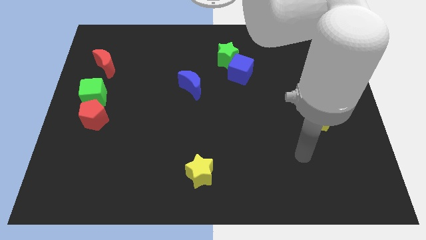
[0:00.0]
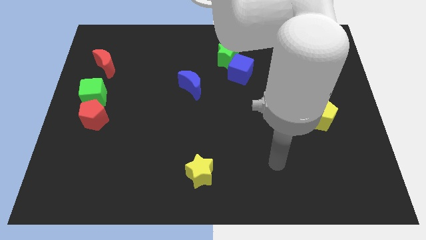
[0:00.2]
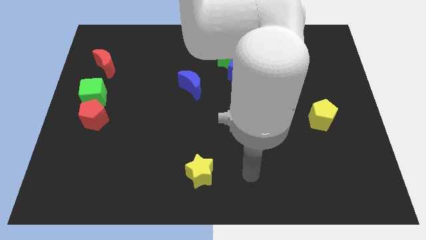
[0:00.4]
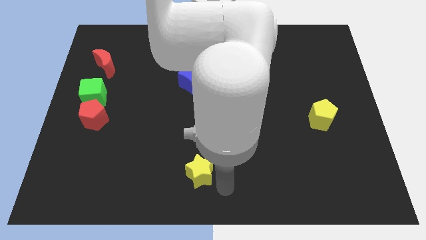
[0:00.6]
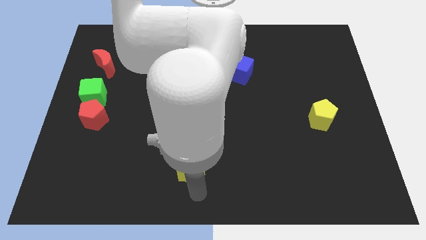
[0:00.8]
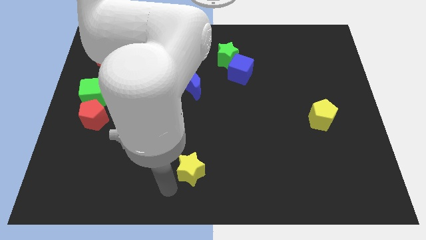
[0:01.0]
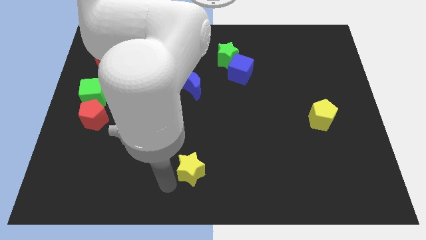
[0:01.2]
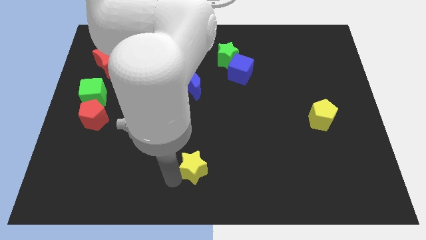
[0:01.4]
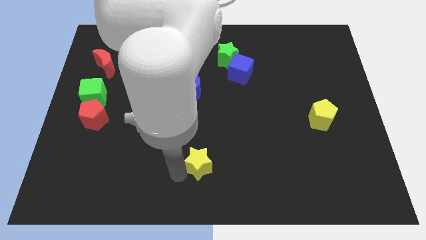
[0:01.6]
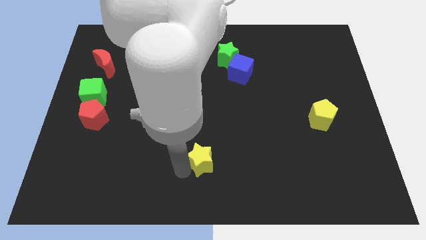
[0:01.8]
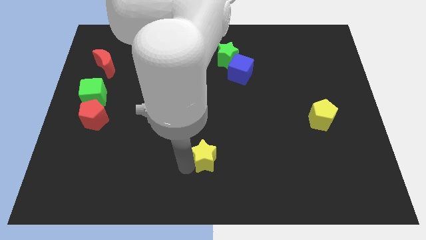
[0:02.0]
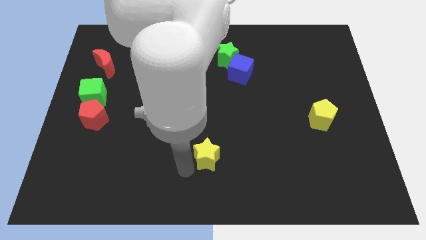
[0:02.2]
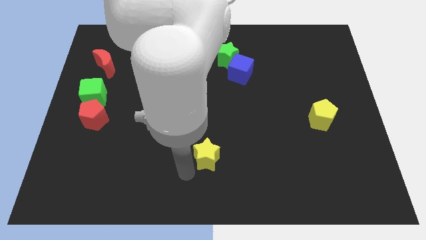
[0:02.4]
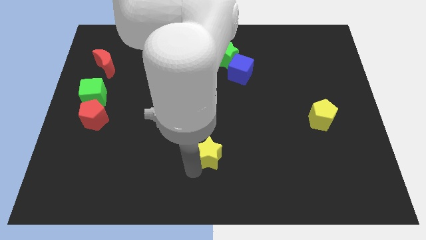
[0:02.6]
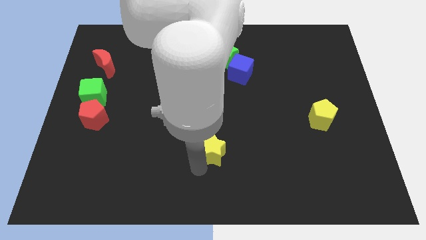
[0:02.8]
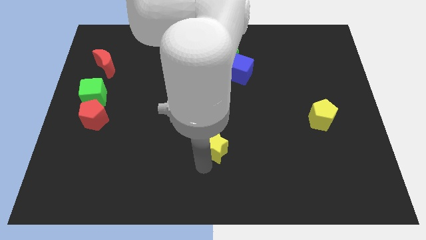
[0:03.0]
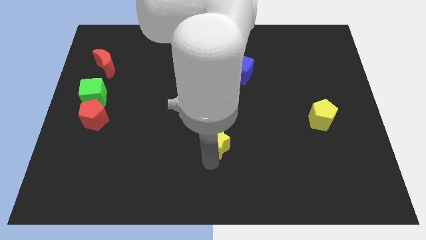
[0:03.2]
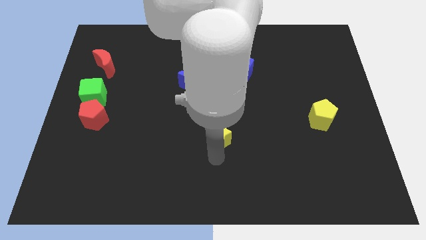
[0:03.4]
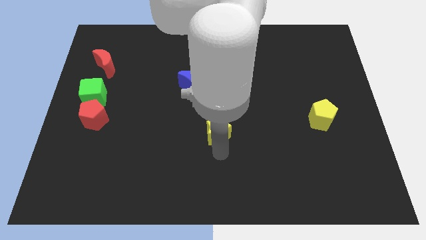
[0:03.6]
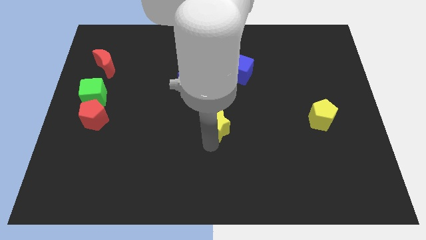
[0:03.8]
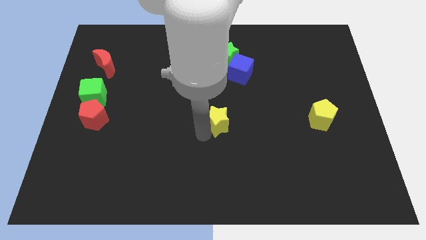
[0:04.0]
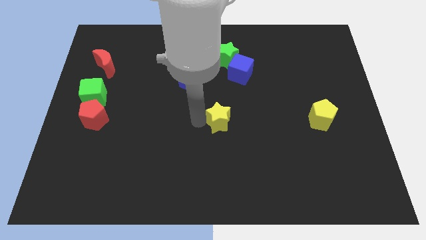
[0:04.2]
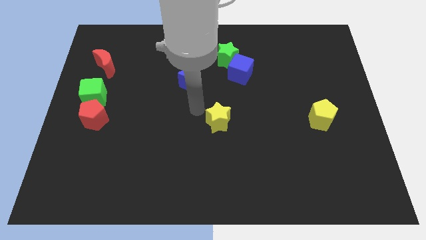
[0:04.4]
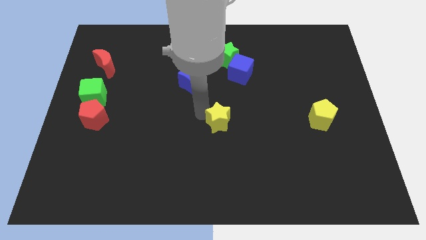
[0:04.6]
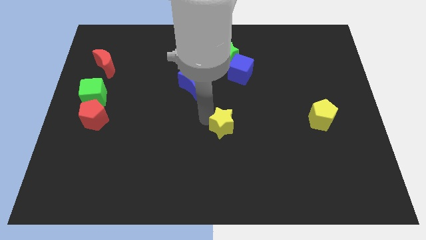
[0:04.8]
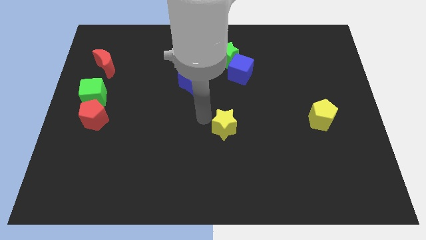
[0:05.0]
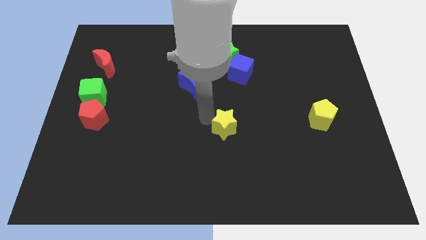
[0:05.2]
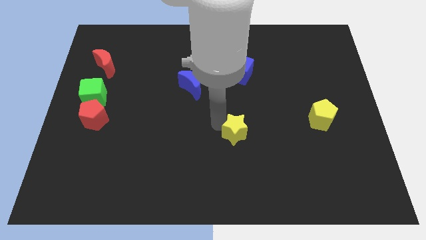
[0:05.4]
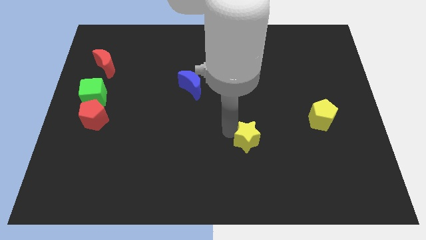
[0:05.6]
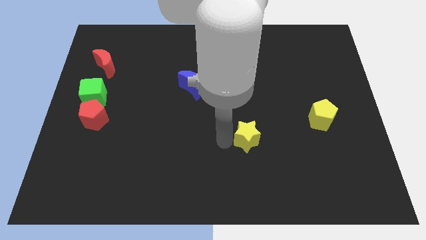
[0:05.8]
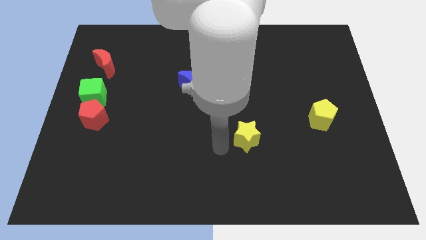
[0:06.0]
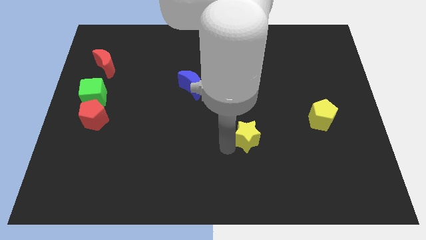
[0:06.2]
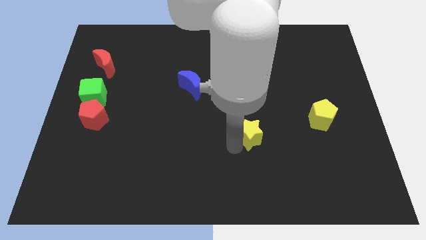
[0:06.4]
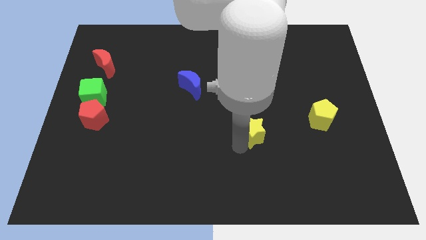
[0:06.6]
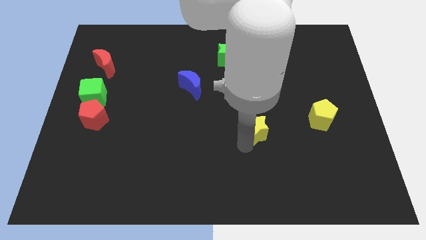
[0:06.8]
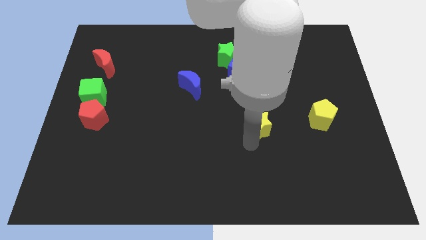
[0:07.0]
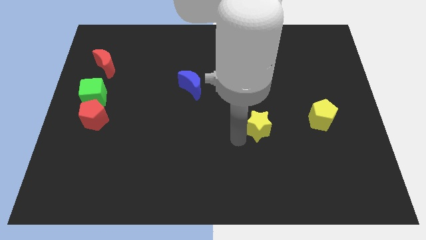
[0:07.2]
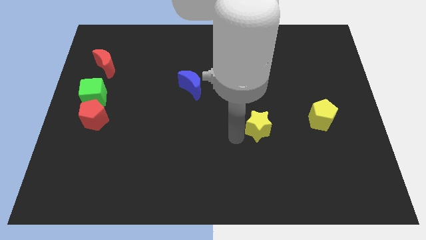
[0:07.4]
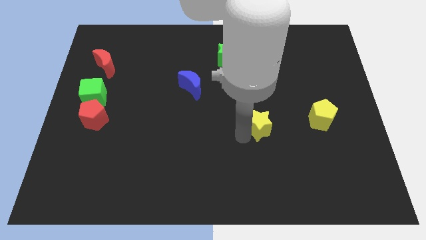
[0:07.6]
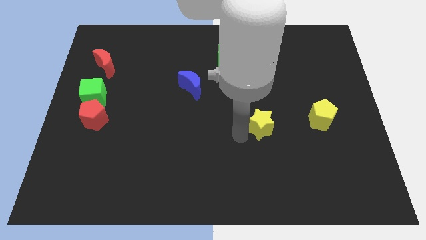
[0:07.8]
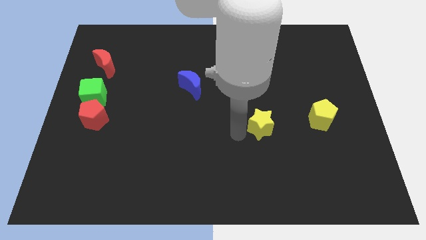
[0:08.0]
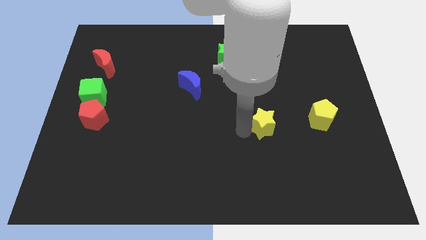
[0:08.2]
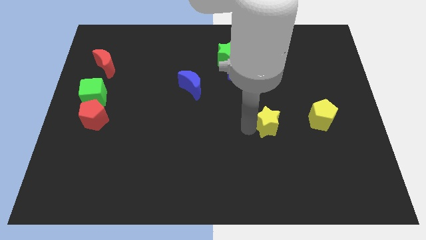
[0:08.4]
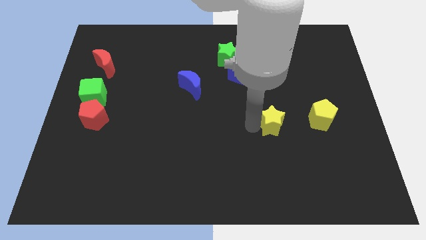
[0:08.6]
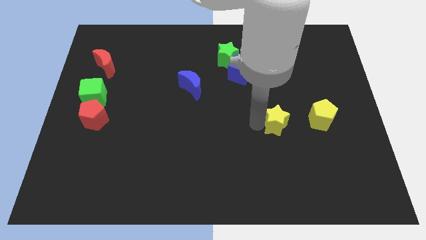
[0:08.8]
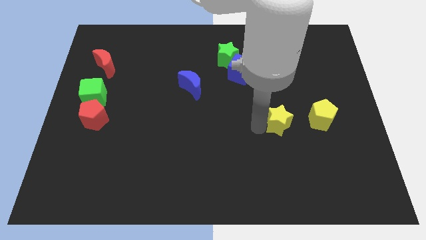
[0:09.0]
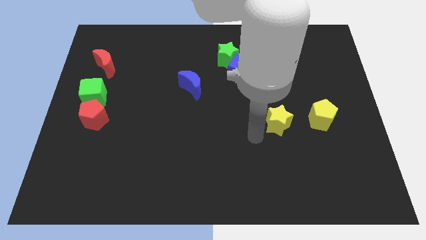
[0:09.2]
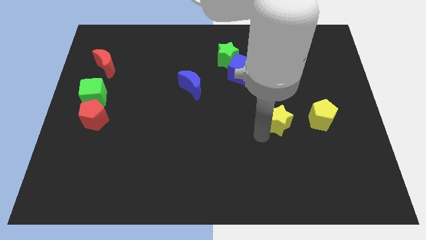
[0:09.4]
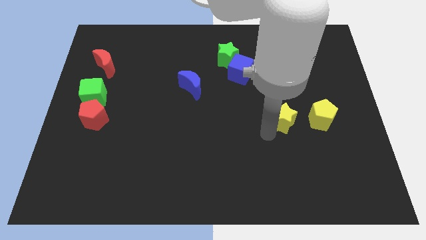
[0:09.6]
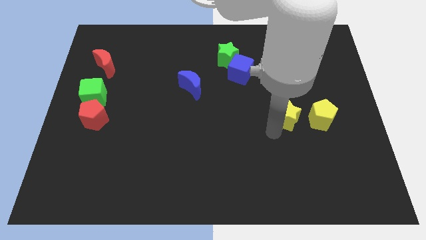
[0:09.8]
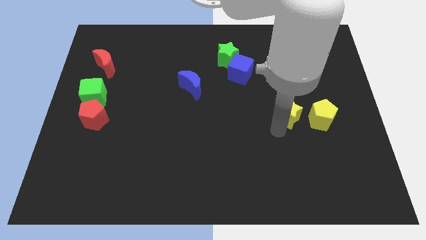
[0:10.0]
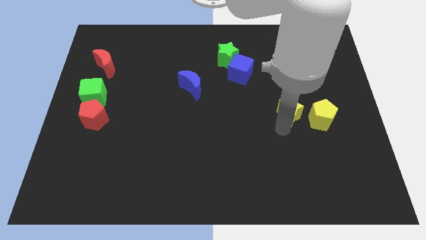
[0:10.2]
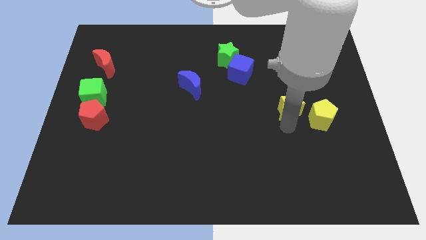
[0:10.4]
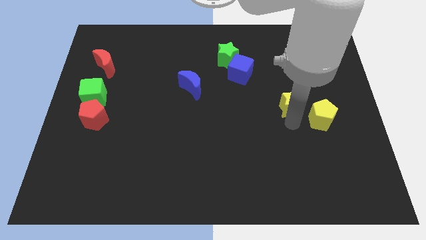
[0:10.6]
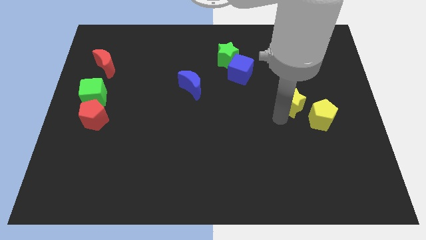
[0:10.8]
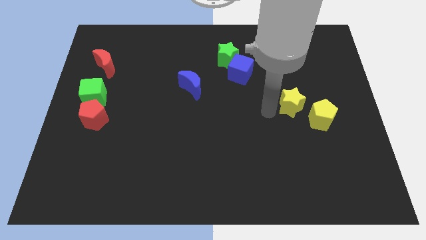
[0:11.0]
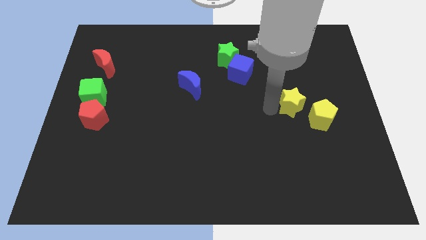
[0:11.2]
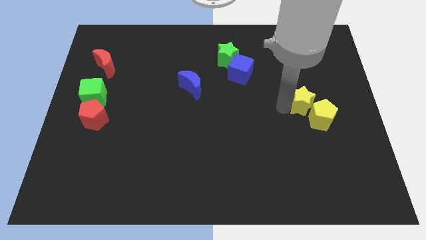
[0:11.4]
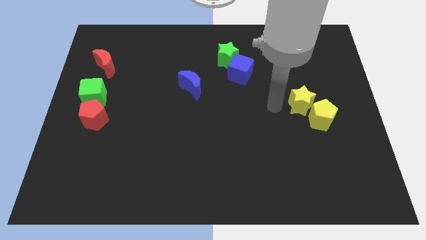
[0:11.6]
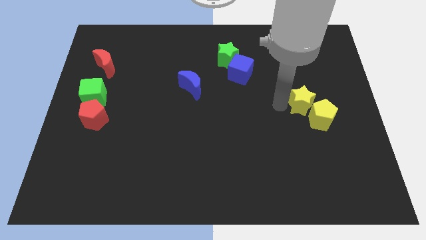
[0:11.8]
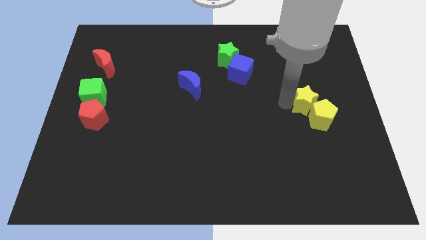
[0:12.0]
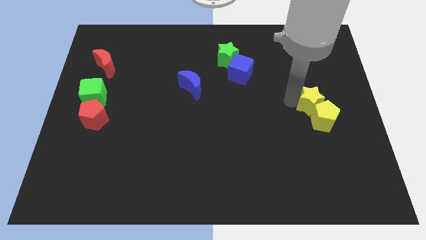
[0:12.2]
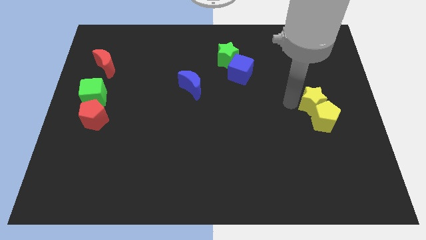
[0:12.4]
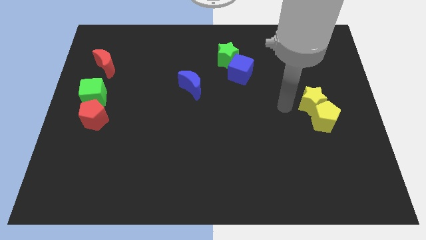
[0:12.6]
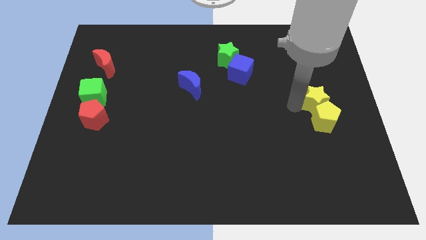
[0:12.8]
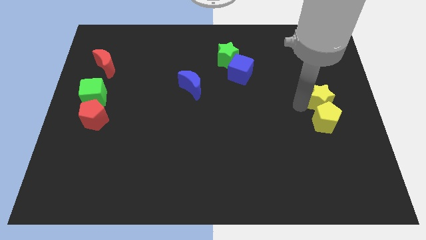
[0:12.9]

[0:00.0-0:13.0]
put the yellow star to the right side of the board

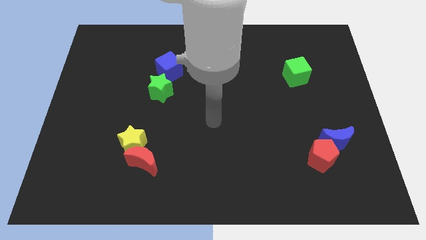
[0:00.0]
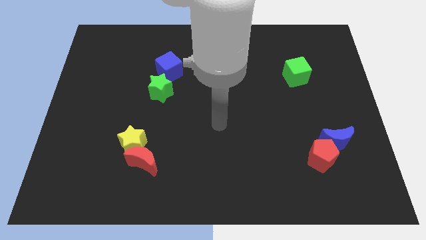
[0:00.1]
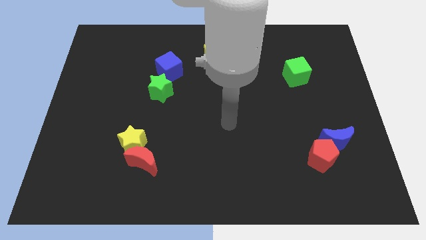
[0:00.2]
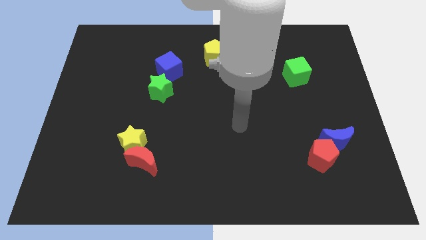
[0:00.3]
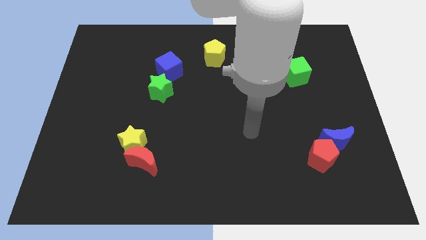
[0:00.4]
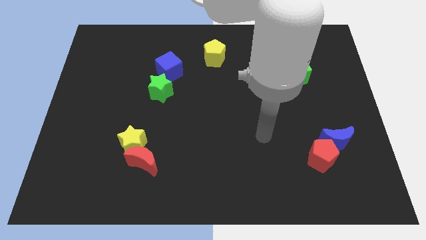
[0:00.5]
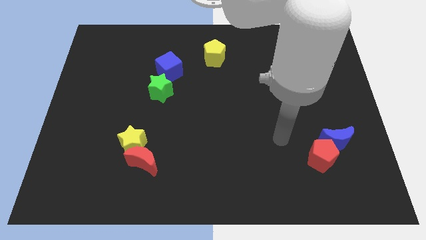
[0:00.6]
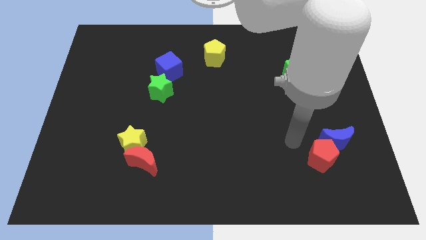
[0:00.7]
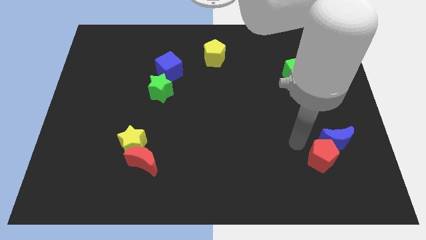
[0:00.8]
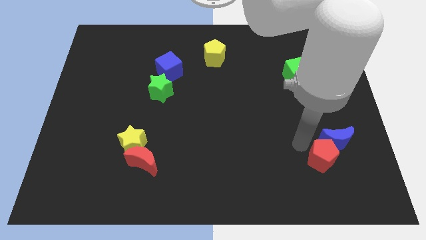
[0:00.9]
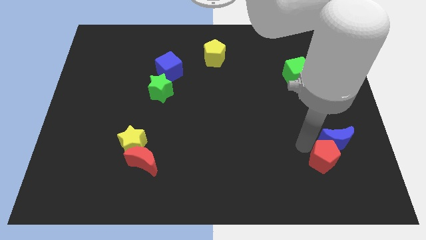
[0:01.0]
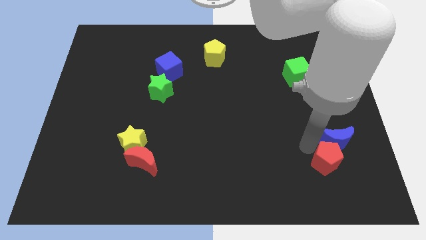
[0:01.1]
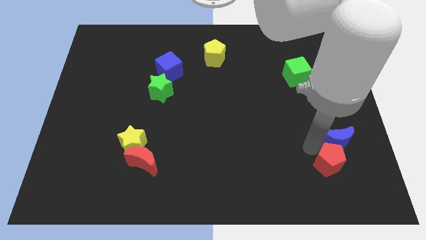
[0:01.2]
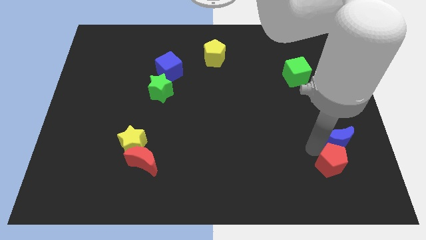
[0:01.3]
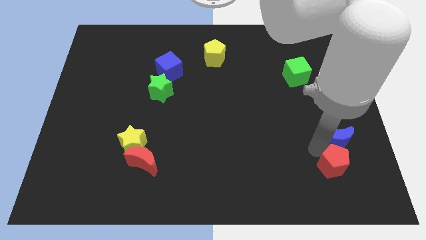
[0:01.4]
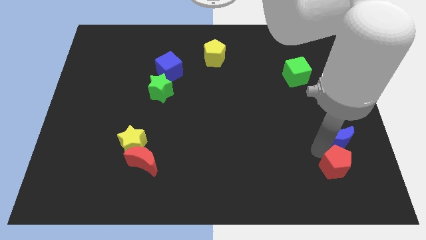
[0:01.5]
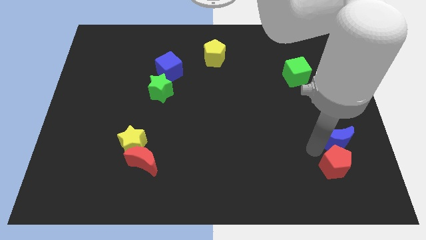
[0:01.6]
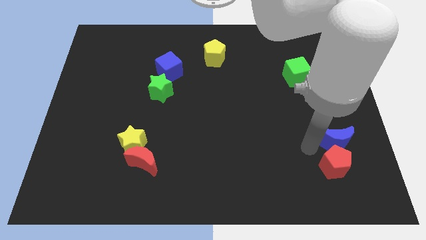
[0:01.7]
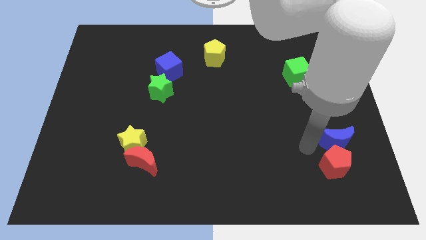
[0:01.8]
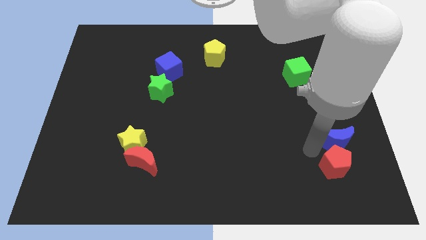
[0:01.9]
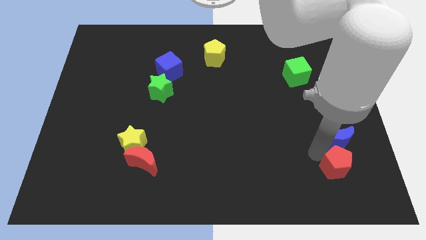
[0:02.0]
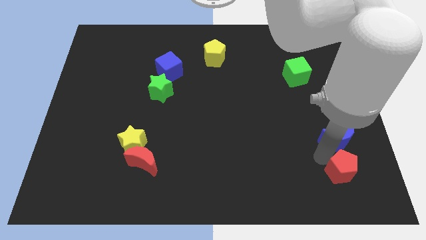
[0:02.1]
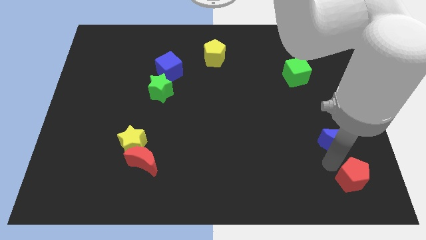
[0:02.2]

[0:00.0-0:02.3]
move the red pentagon to the bottom right
